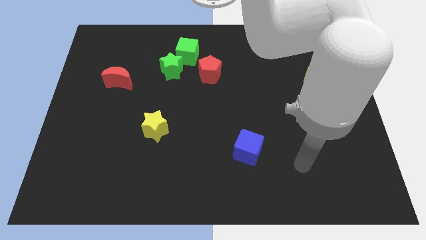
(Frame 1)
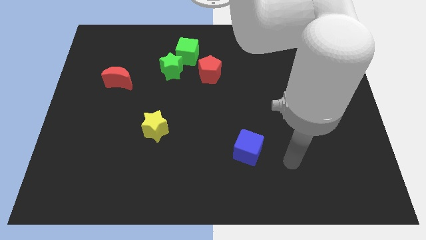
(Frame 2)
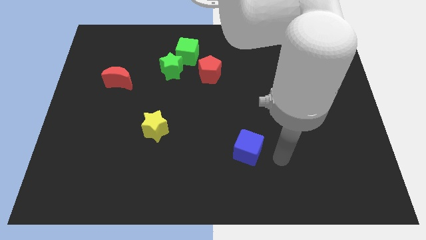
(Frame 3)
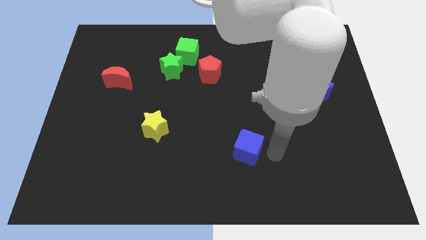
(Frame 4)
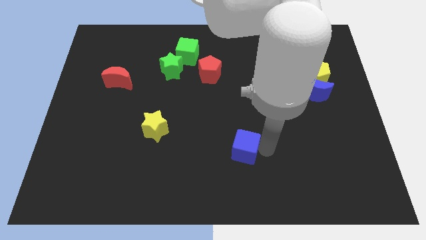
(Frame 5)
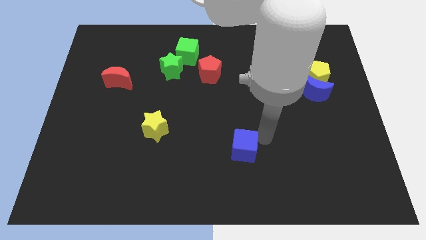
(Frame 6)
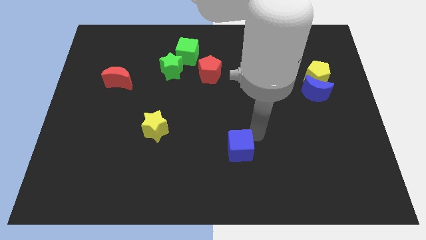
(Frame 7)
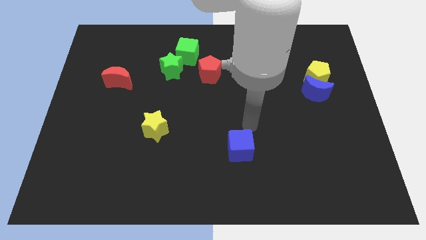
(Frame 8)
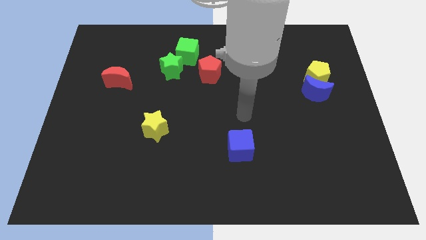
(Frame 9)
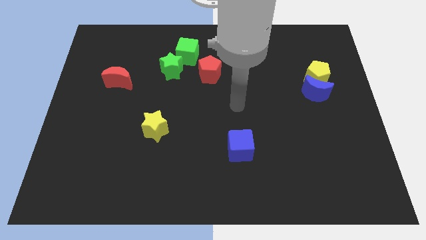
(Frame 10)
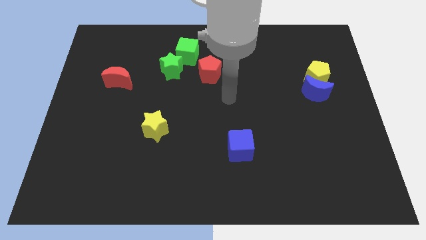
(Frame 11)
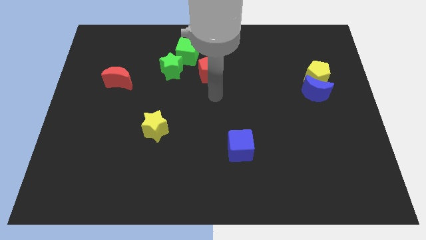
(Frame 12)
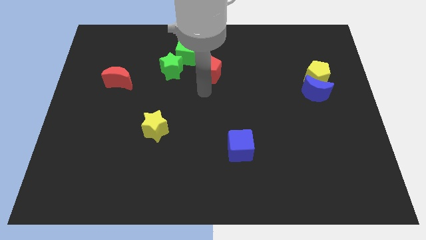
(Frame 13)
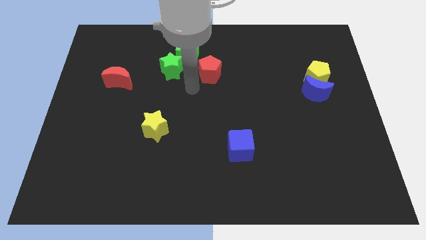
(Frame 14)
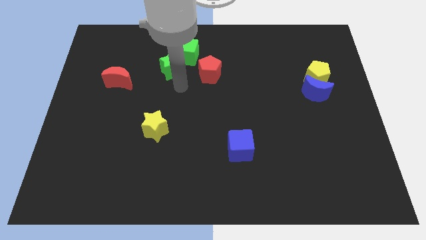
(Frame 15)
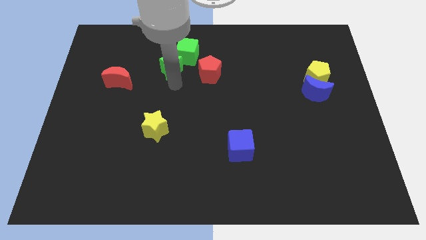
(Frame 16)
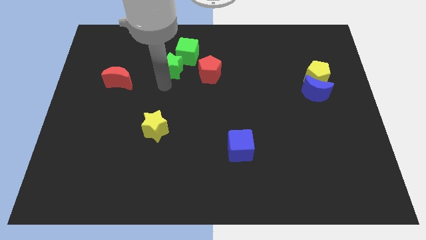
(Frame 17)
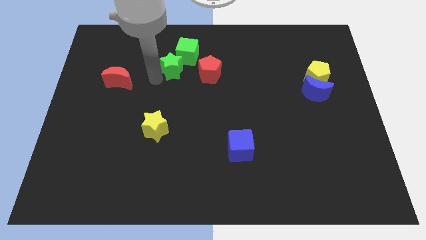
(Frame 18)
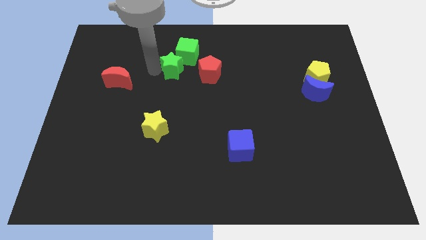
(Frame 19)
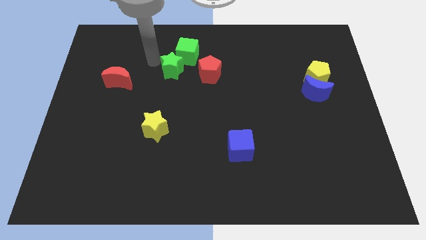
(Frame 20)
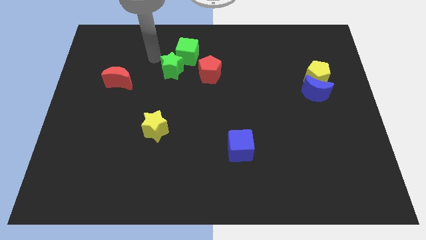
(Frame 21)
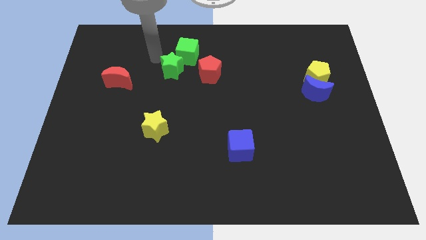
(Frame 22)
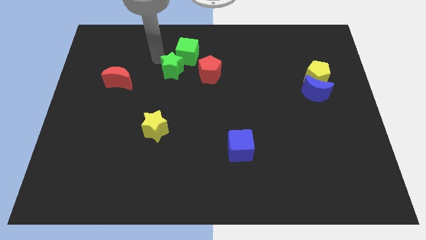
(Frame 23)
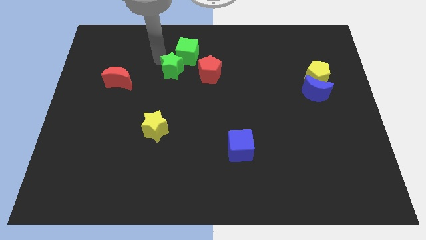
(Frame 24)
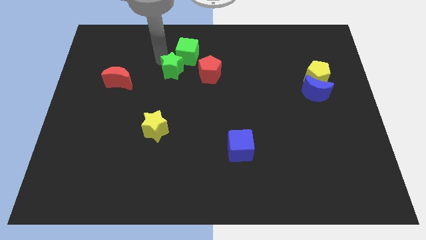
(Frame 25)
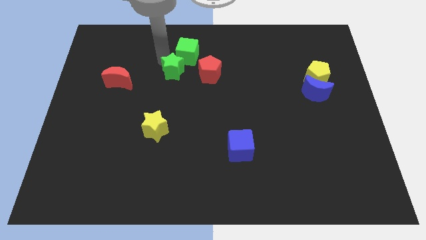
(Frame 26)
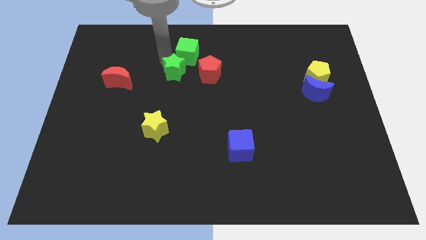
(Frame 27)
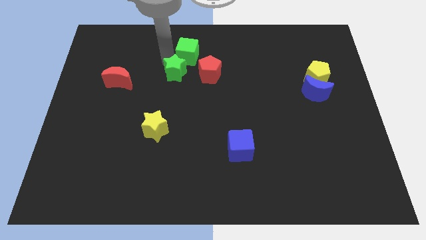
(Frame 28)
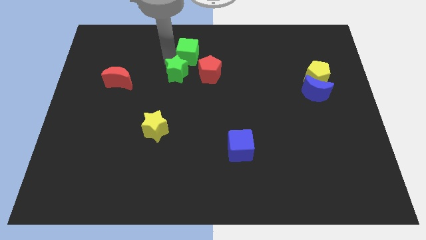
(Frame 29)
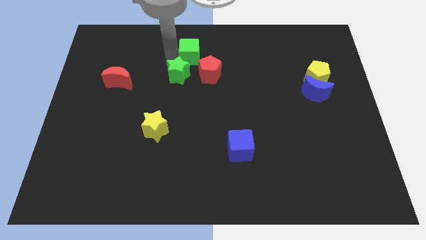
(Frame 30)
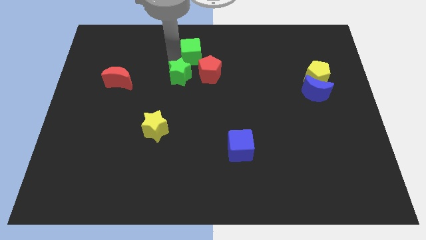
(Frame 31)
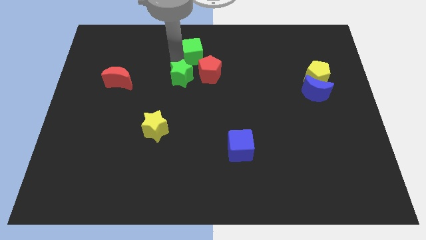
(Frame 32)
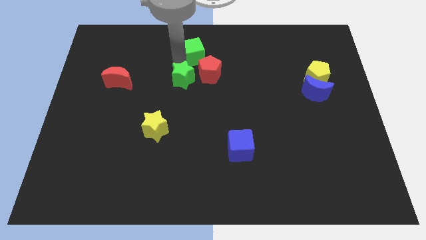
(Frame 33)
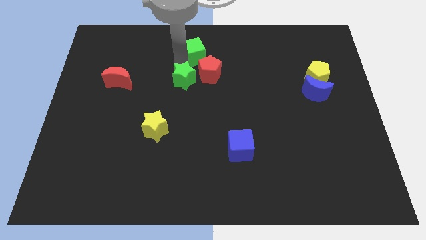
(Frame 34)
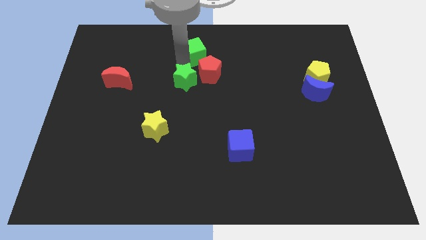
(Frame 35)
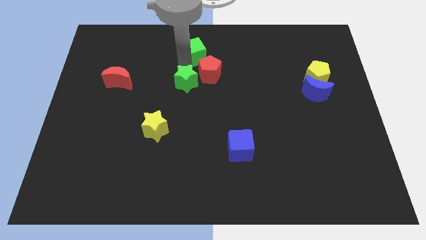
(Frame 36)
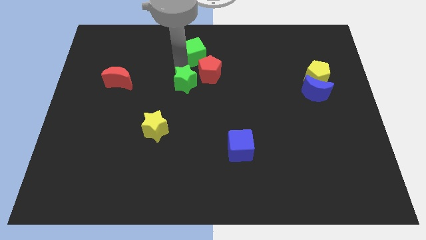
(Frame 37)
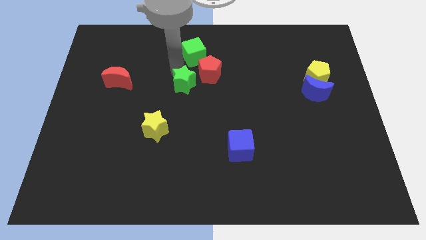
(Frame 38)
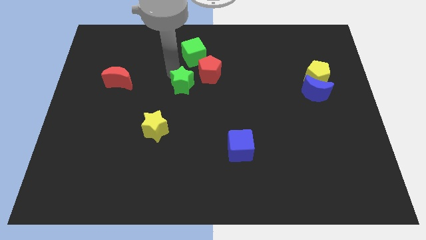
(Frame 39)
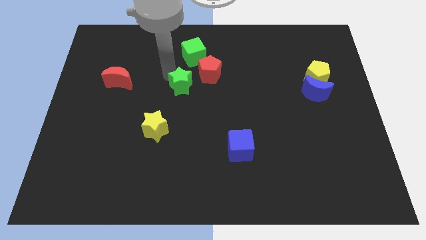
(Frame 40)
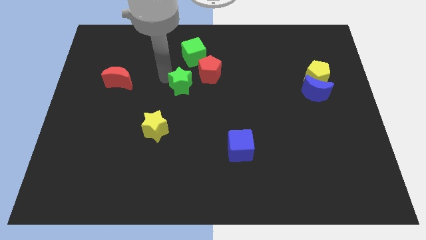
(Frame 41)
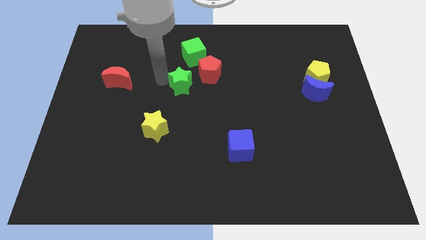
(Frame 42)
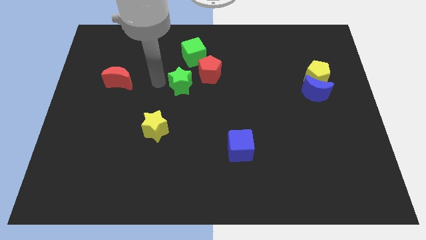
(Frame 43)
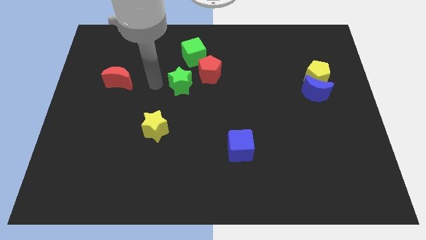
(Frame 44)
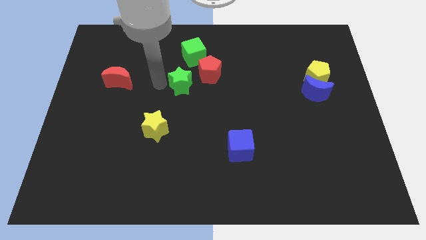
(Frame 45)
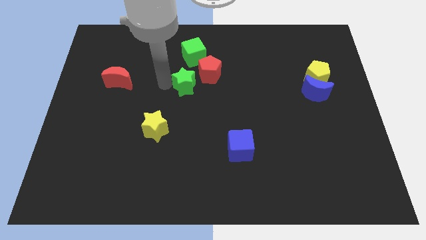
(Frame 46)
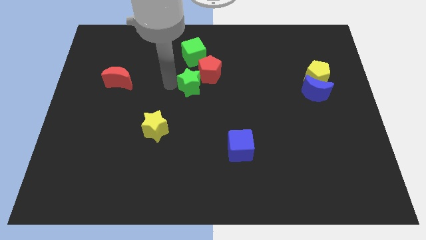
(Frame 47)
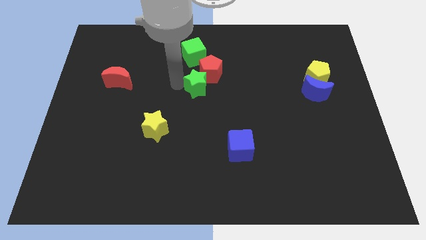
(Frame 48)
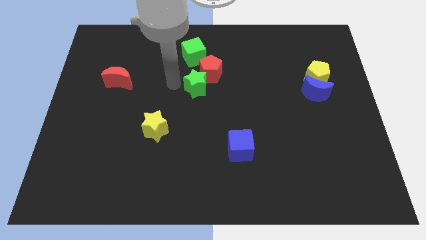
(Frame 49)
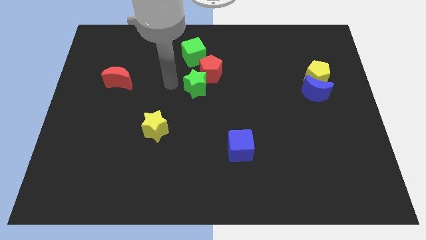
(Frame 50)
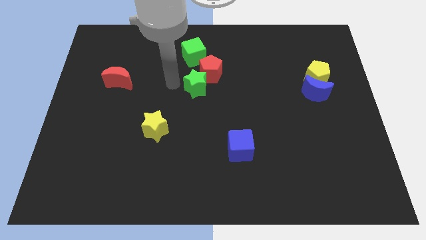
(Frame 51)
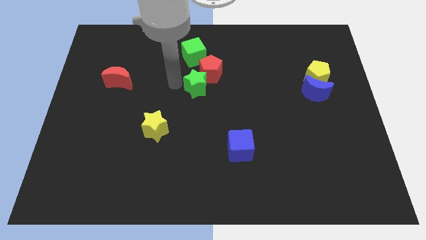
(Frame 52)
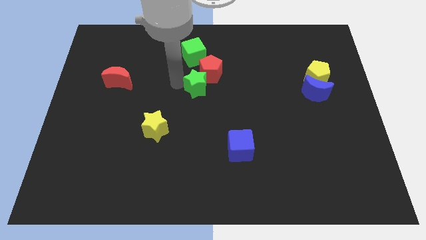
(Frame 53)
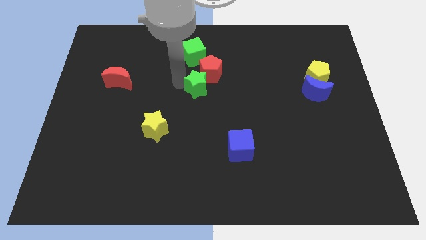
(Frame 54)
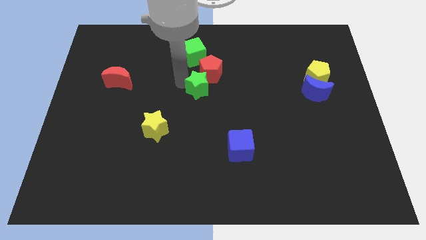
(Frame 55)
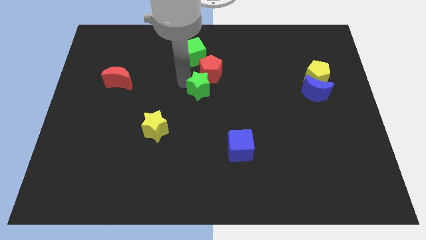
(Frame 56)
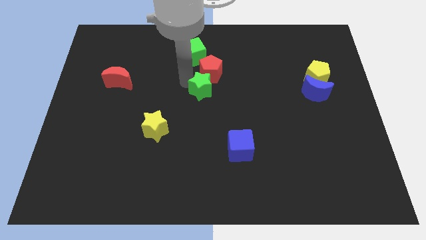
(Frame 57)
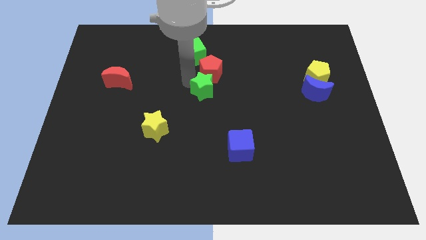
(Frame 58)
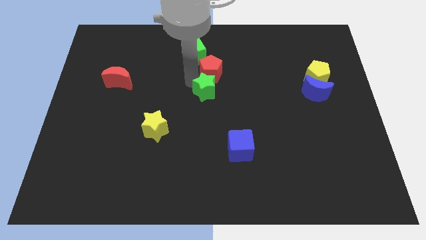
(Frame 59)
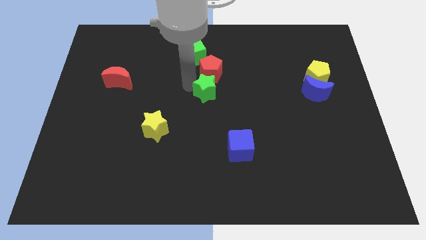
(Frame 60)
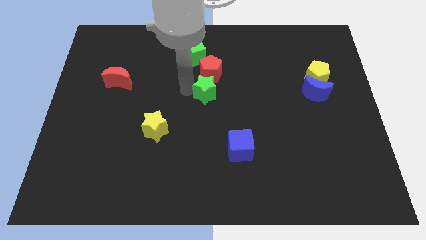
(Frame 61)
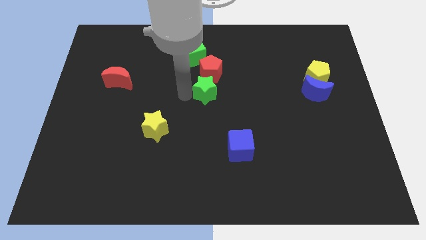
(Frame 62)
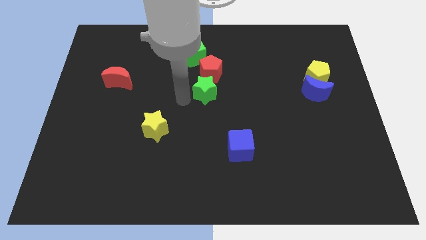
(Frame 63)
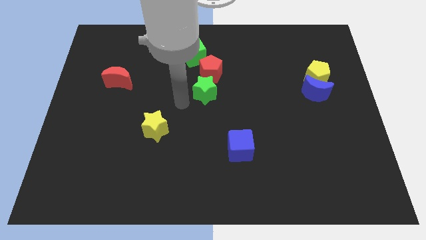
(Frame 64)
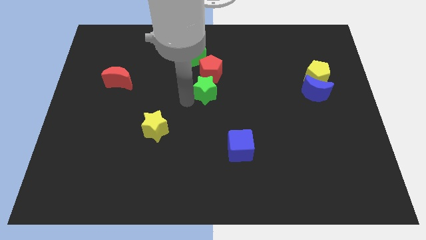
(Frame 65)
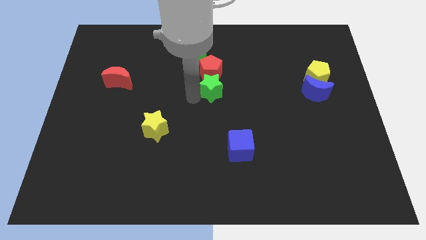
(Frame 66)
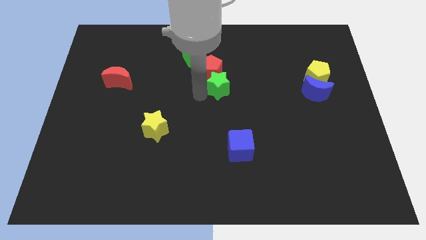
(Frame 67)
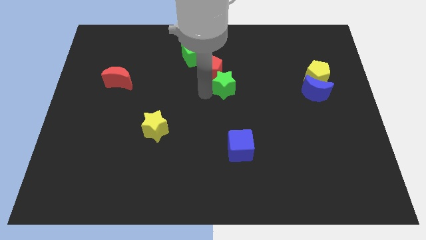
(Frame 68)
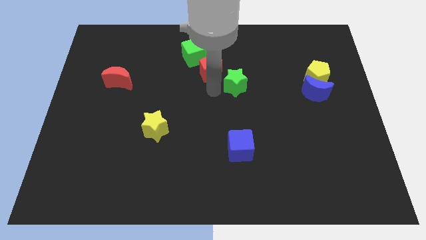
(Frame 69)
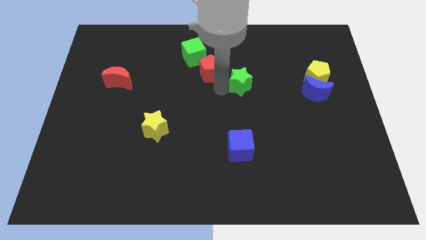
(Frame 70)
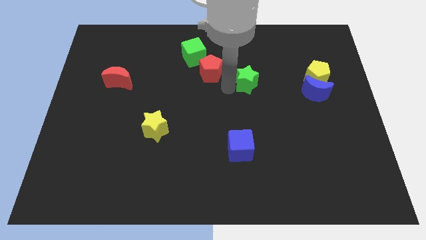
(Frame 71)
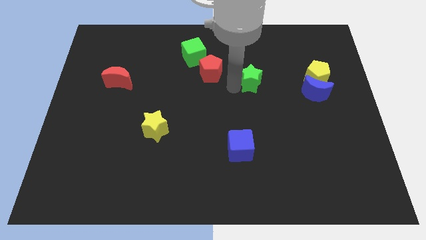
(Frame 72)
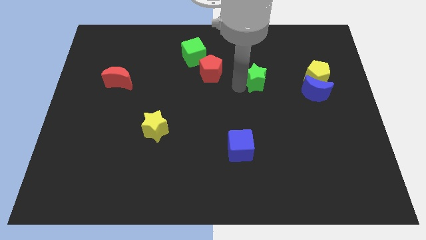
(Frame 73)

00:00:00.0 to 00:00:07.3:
push the green star to the right

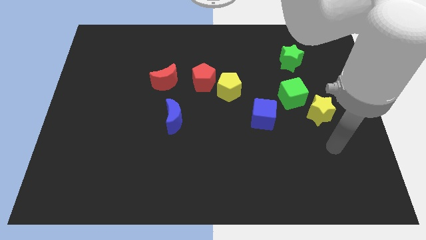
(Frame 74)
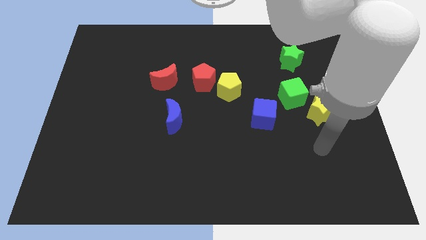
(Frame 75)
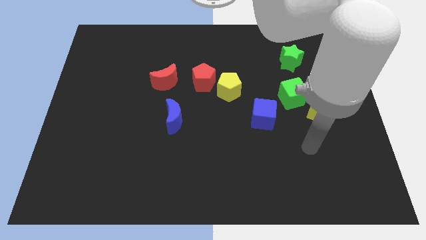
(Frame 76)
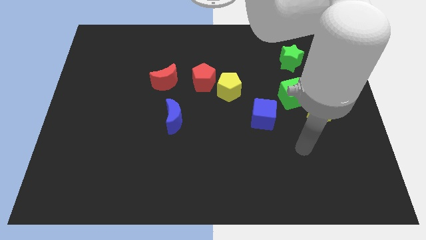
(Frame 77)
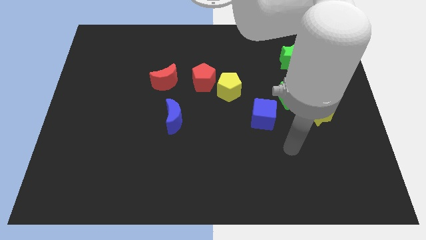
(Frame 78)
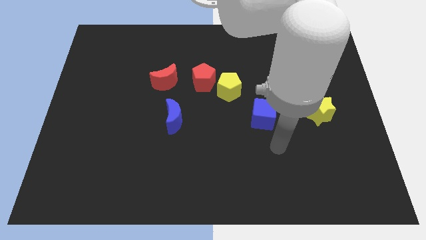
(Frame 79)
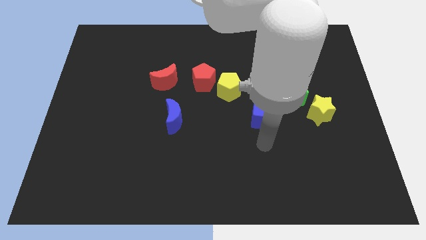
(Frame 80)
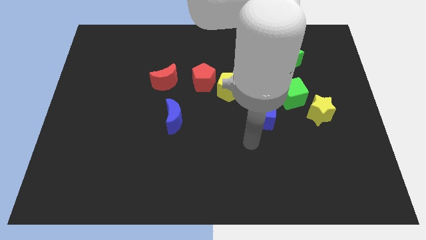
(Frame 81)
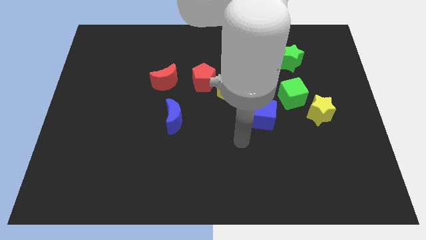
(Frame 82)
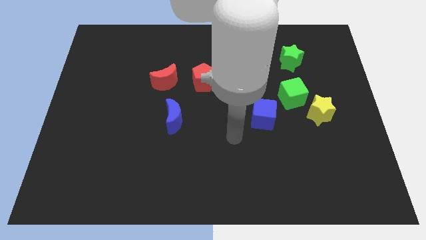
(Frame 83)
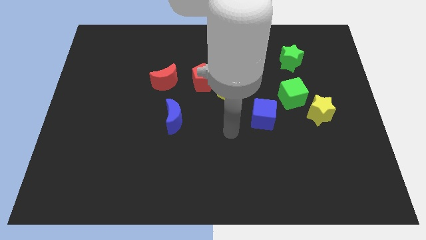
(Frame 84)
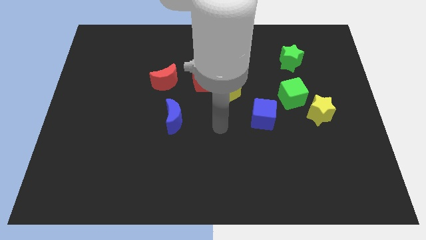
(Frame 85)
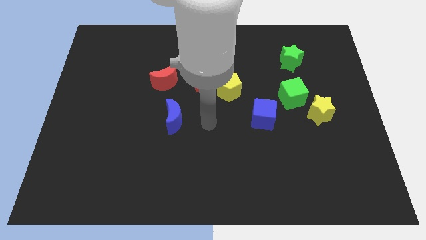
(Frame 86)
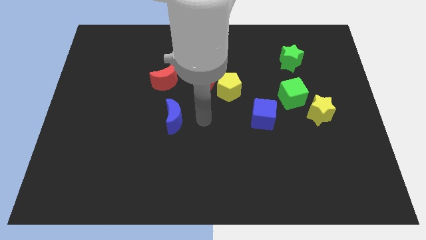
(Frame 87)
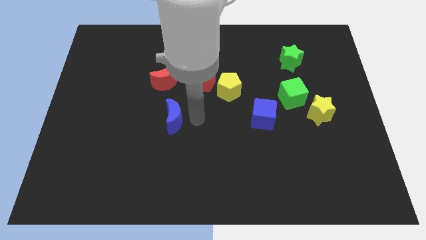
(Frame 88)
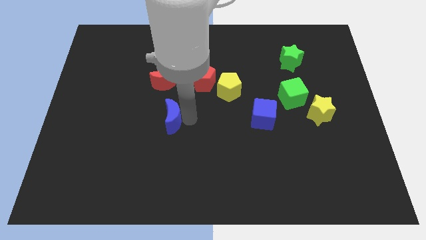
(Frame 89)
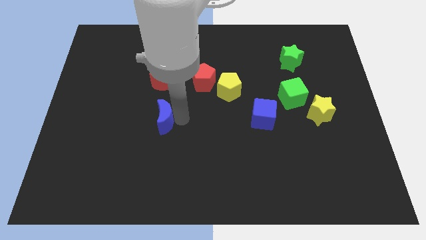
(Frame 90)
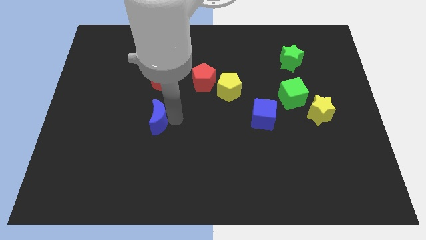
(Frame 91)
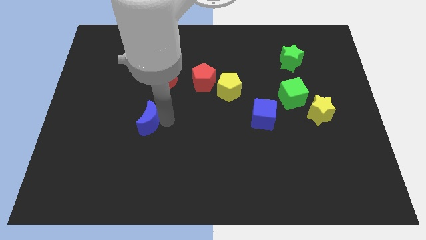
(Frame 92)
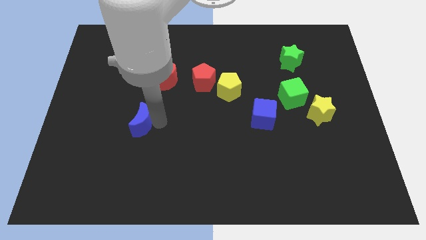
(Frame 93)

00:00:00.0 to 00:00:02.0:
slightly move the blue moon to the left
